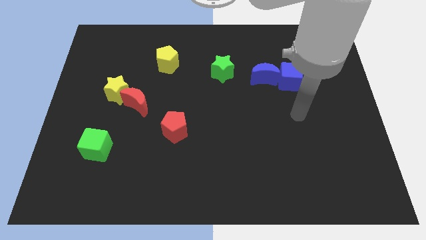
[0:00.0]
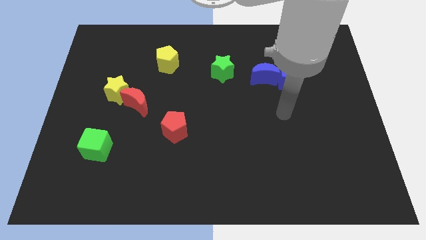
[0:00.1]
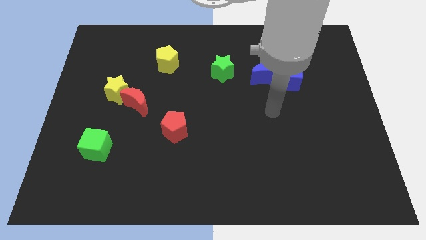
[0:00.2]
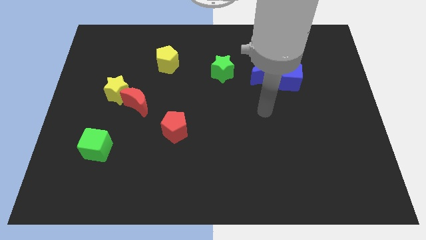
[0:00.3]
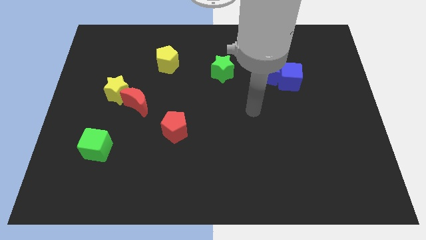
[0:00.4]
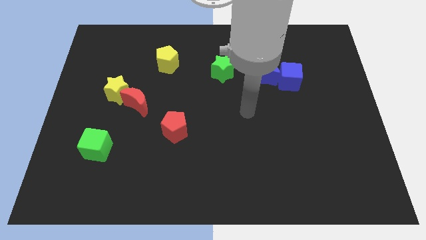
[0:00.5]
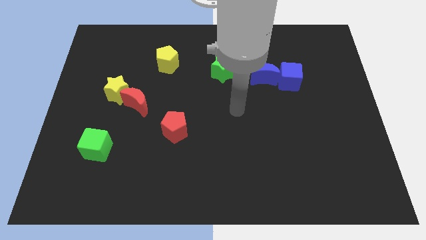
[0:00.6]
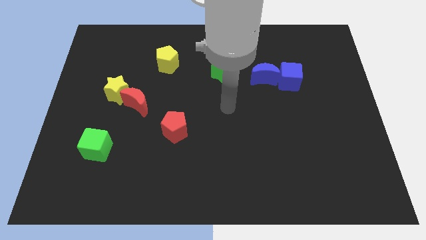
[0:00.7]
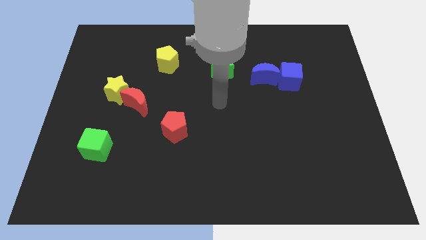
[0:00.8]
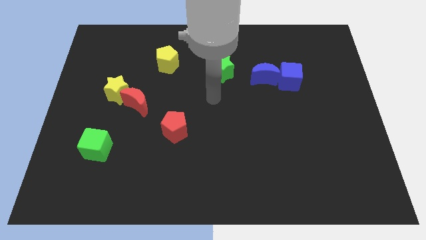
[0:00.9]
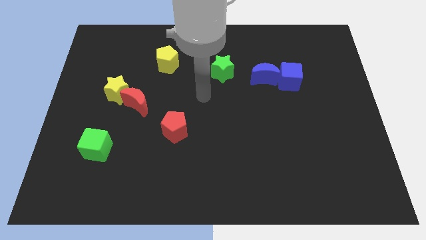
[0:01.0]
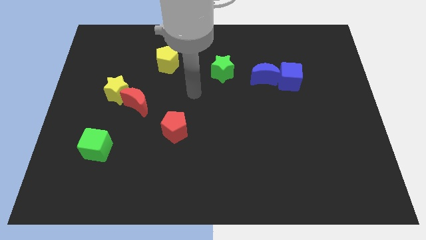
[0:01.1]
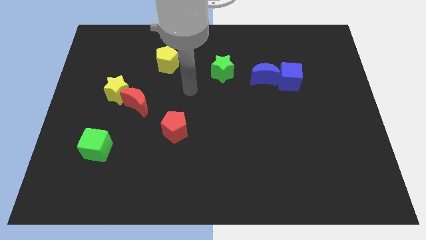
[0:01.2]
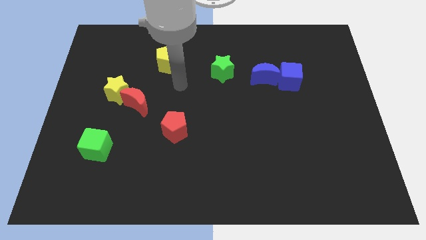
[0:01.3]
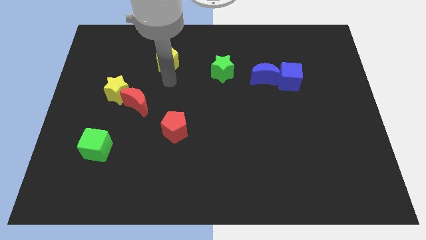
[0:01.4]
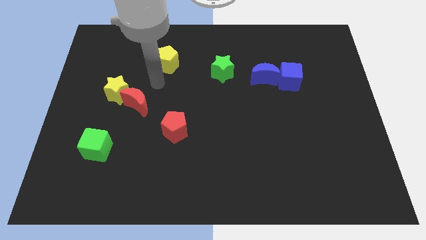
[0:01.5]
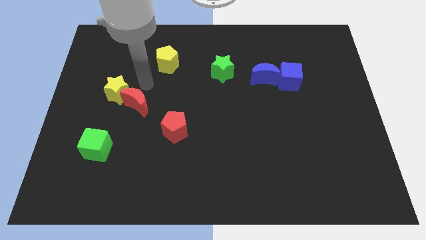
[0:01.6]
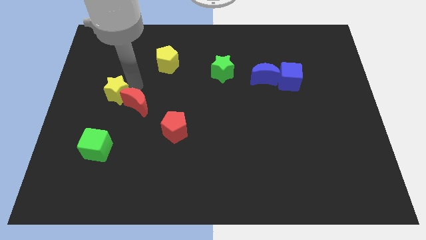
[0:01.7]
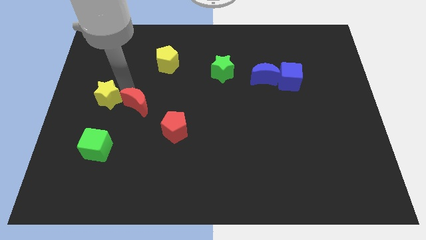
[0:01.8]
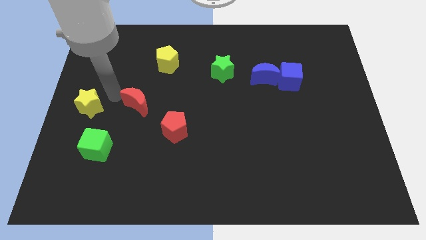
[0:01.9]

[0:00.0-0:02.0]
pull the red moon apart from the yellow star

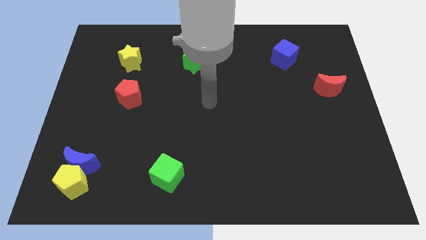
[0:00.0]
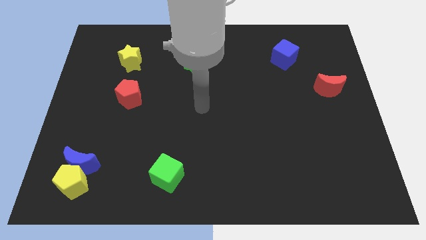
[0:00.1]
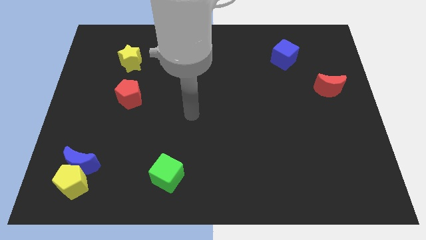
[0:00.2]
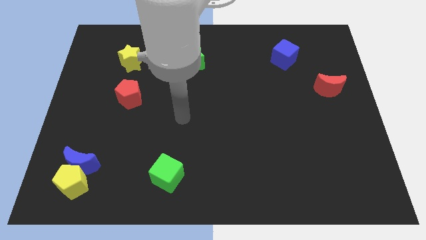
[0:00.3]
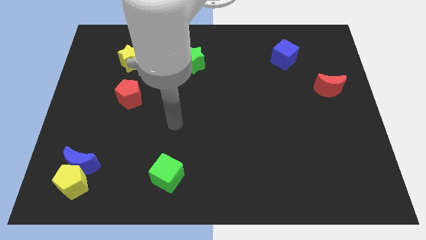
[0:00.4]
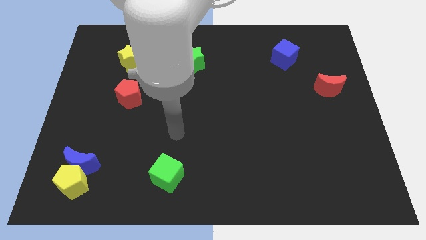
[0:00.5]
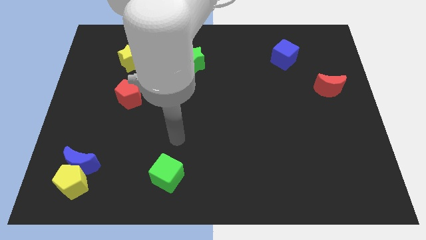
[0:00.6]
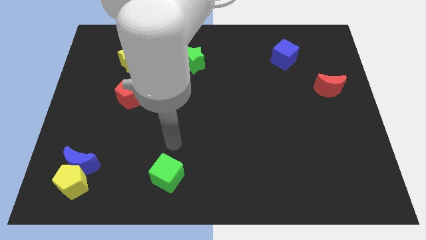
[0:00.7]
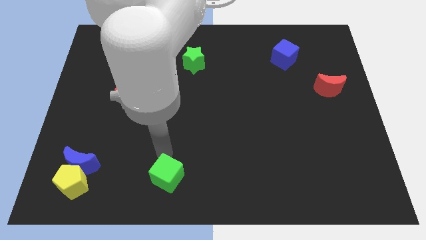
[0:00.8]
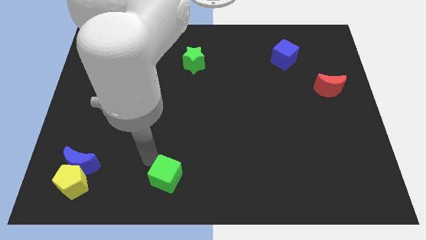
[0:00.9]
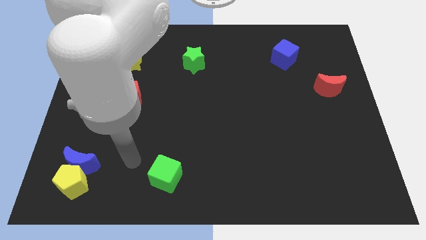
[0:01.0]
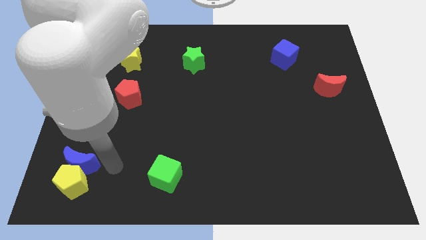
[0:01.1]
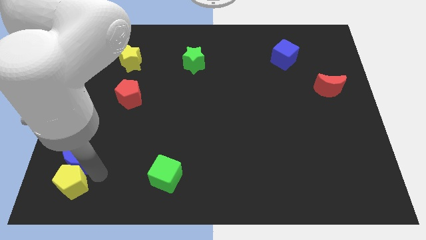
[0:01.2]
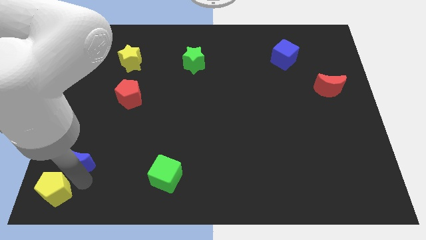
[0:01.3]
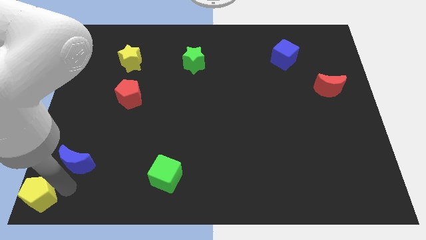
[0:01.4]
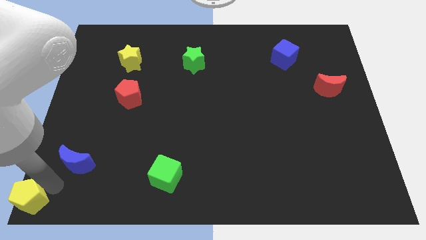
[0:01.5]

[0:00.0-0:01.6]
pull the blue moon apart from the yellow pentagon

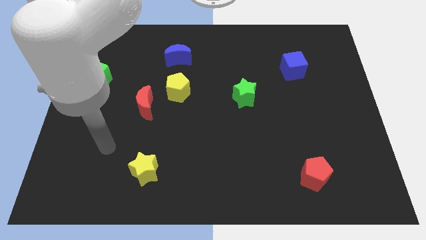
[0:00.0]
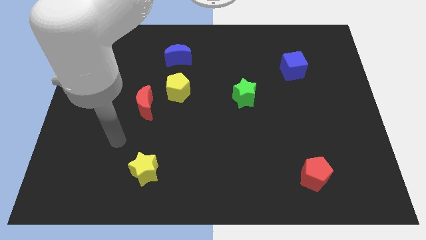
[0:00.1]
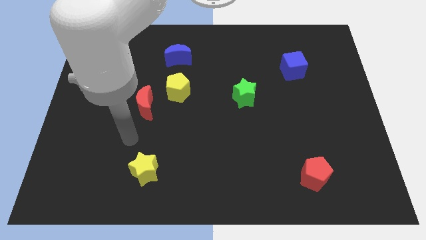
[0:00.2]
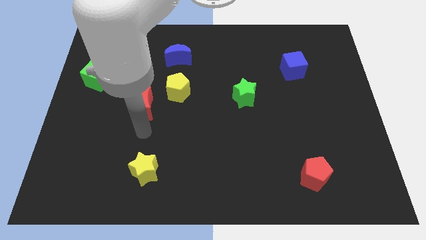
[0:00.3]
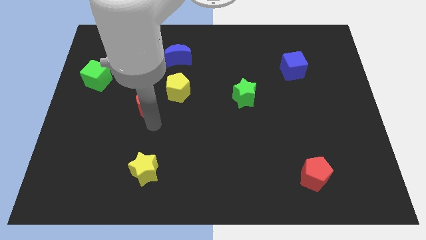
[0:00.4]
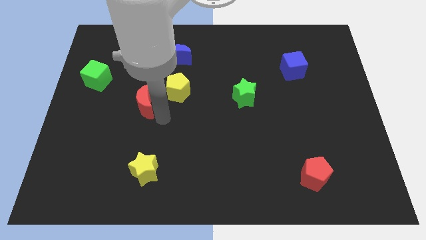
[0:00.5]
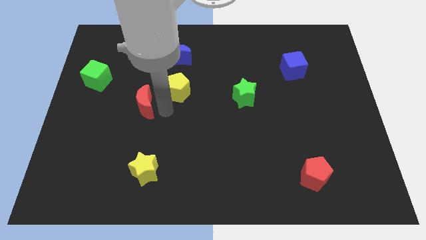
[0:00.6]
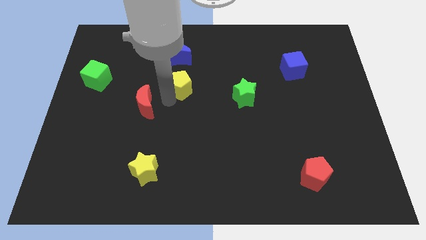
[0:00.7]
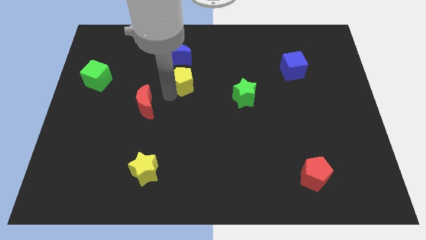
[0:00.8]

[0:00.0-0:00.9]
pull the red moon apart from the yellow pentagon

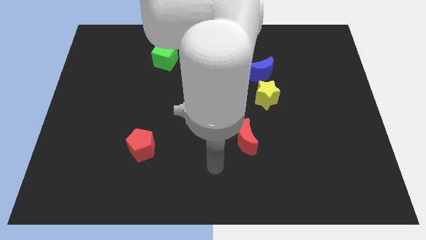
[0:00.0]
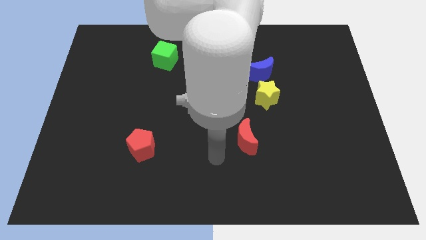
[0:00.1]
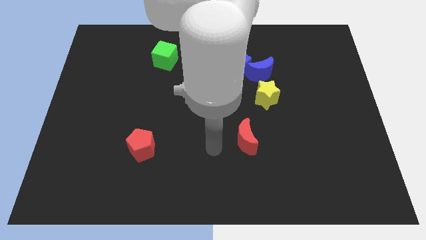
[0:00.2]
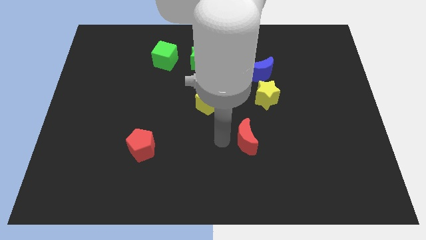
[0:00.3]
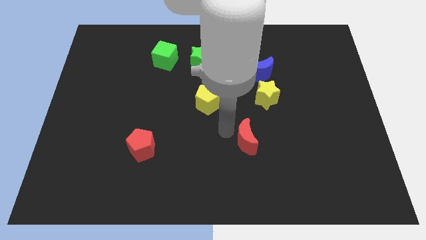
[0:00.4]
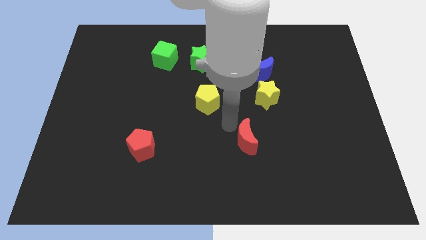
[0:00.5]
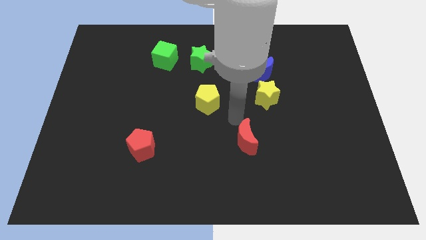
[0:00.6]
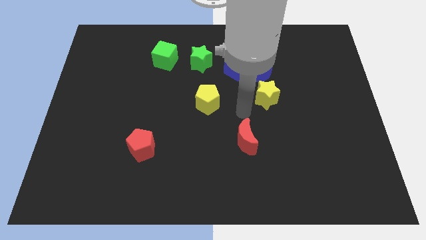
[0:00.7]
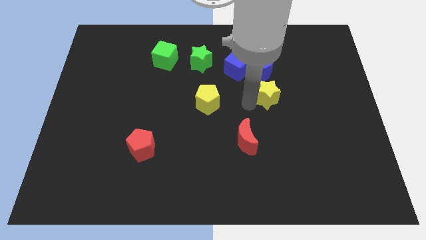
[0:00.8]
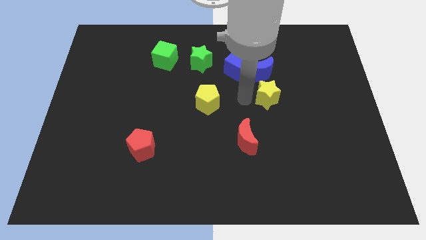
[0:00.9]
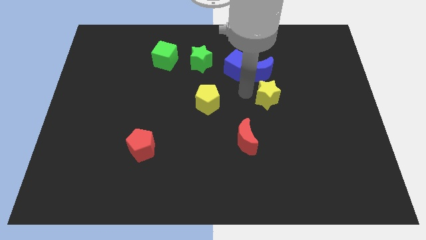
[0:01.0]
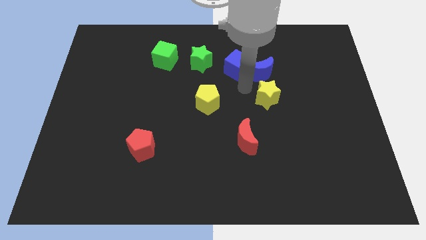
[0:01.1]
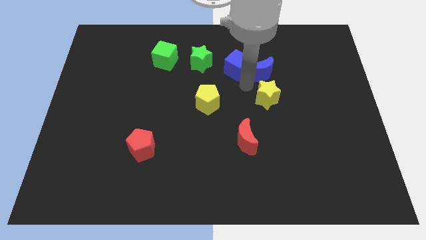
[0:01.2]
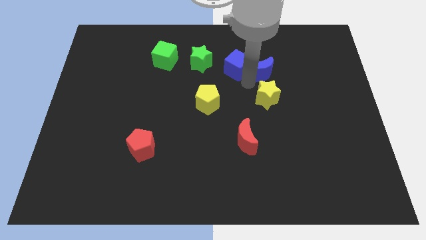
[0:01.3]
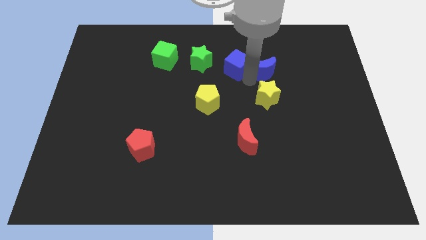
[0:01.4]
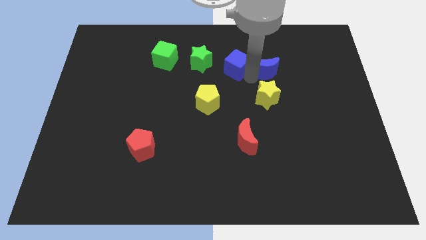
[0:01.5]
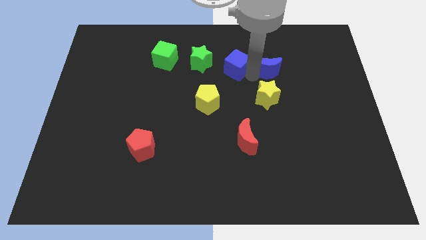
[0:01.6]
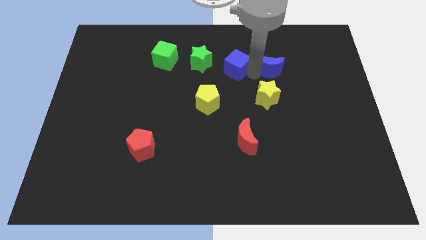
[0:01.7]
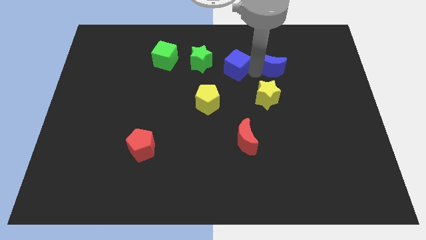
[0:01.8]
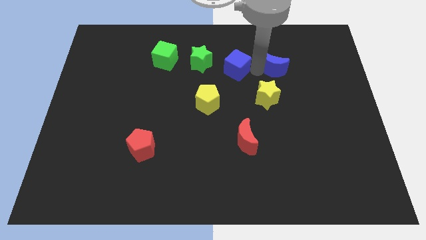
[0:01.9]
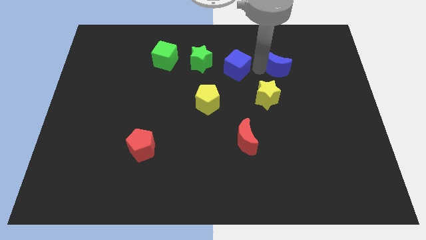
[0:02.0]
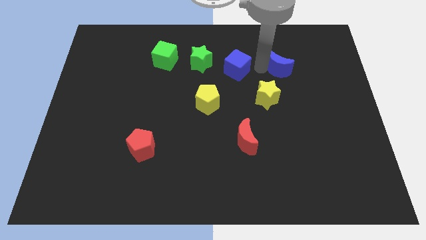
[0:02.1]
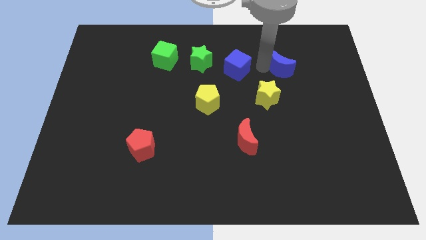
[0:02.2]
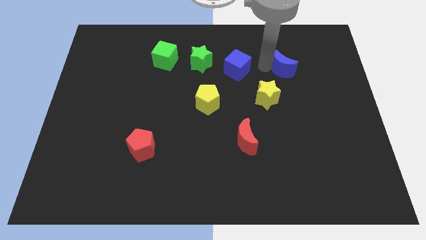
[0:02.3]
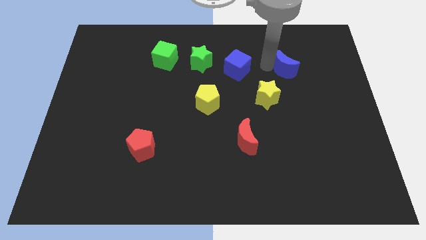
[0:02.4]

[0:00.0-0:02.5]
pull the blue moon apart from the blue cube and yellow star

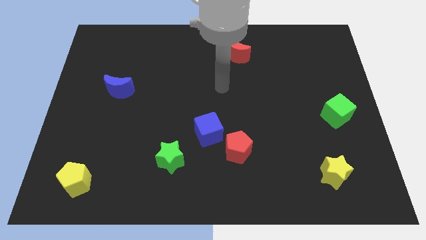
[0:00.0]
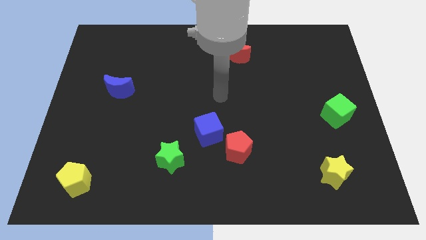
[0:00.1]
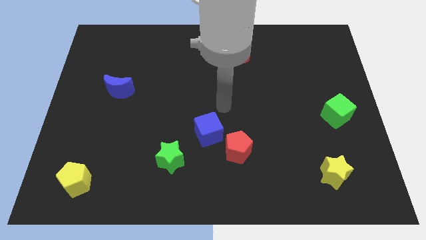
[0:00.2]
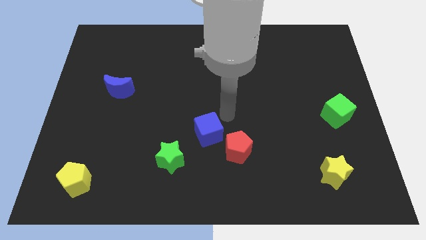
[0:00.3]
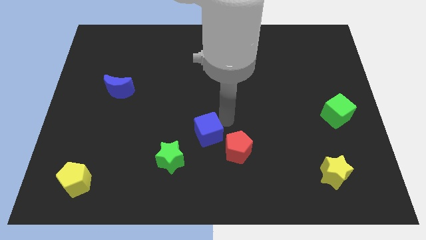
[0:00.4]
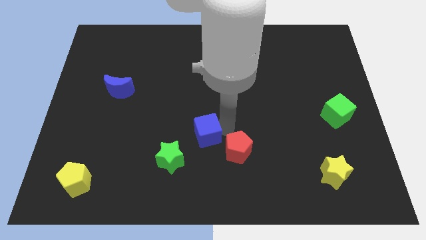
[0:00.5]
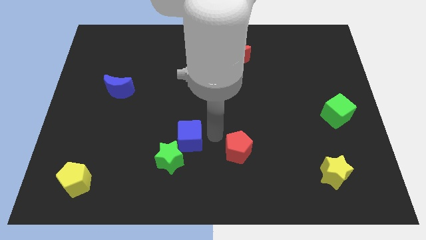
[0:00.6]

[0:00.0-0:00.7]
separate the red pentagon from the blue cube

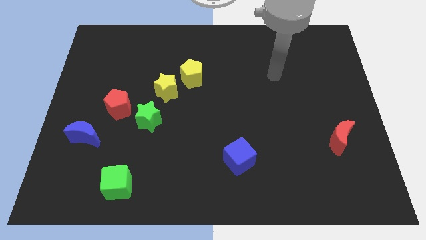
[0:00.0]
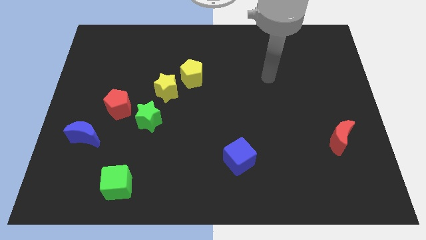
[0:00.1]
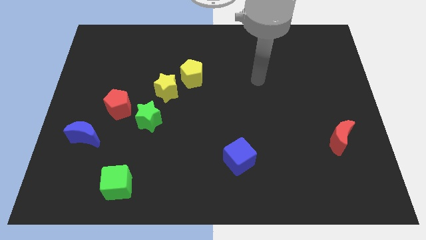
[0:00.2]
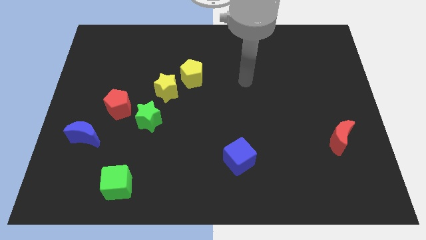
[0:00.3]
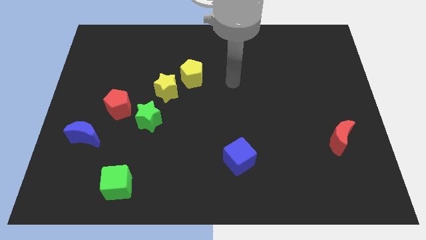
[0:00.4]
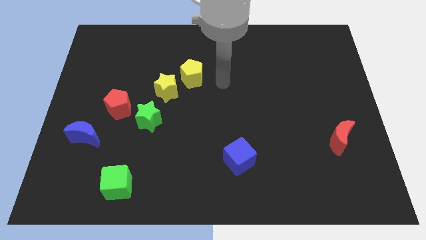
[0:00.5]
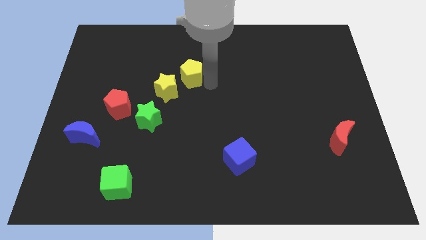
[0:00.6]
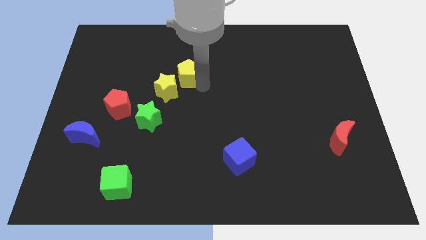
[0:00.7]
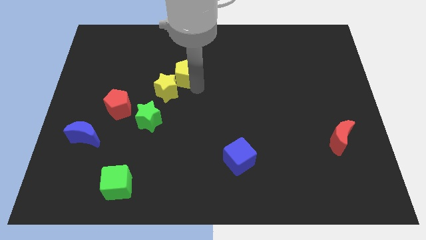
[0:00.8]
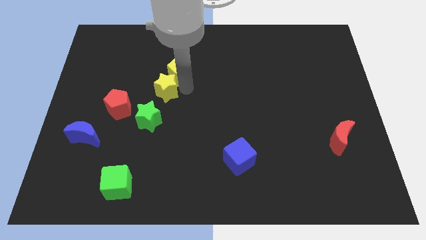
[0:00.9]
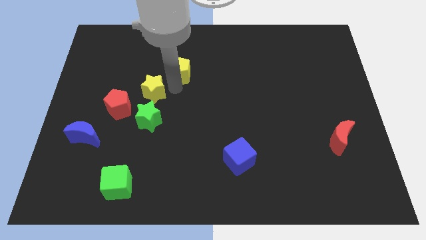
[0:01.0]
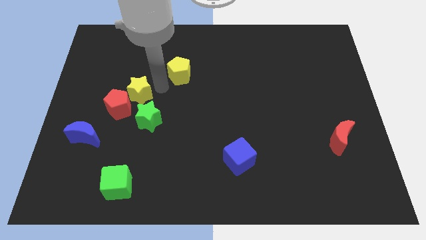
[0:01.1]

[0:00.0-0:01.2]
move the yellow pentagon away from the yellow star

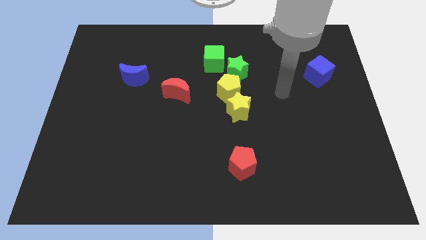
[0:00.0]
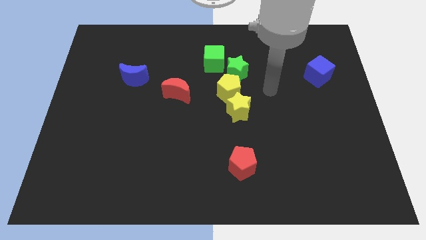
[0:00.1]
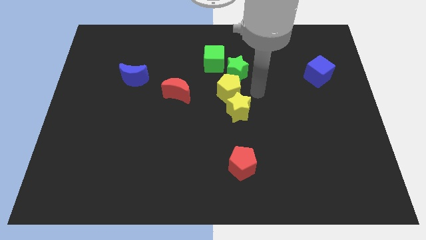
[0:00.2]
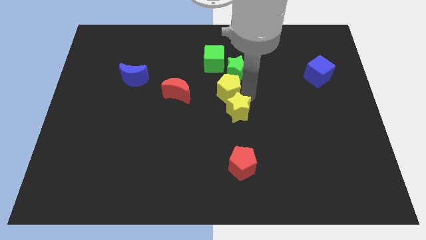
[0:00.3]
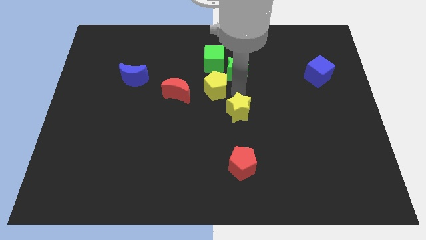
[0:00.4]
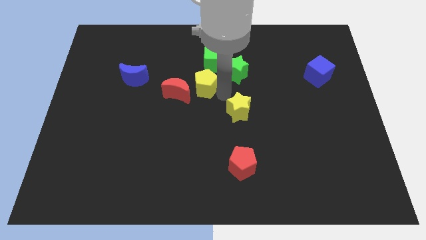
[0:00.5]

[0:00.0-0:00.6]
move the yellow star away from the yellow pentagon
